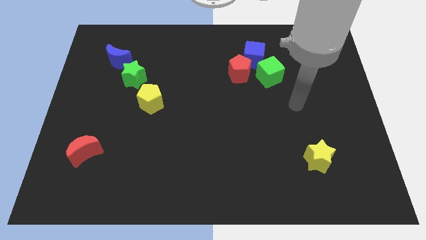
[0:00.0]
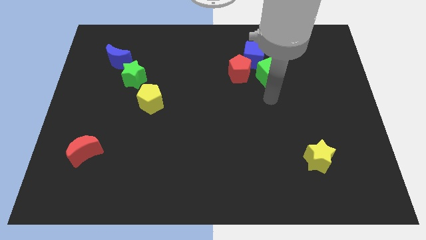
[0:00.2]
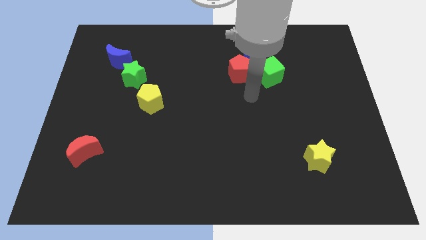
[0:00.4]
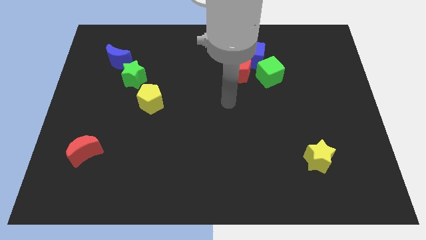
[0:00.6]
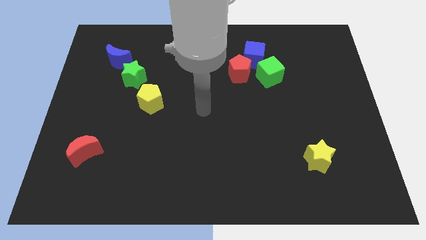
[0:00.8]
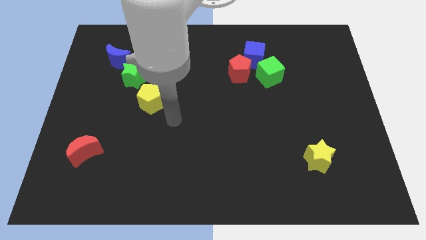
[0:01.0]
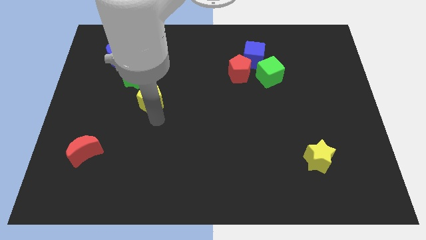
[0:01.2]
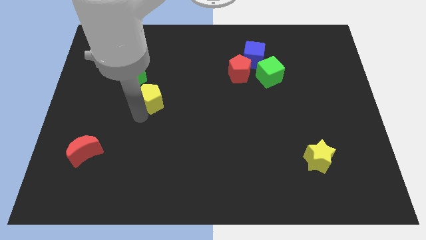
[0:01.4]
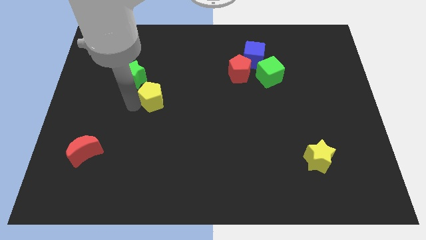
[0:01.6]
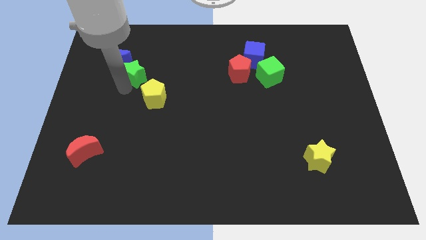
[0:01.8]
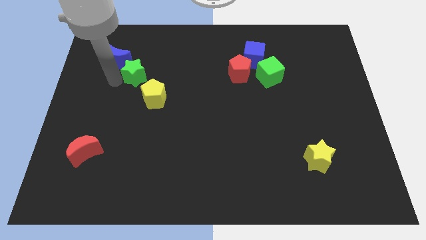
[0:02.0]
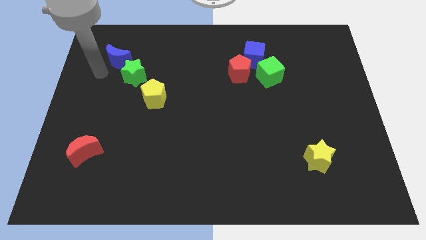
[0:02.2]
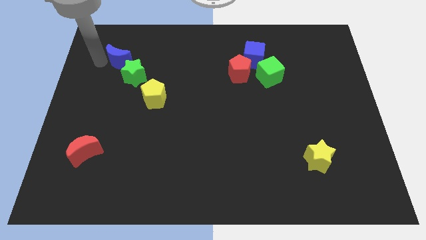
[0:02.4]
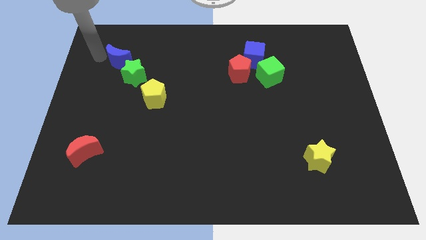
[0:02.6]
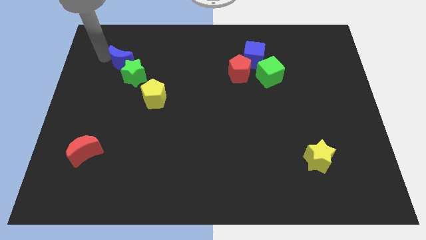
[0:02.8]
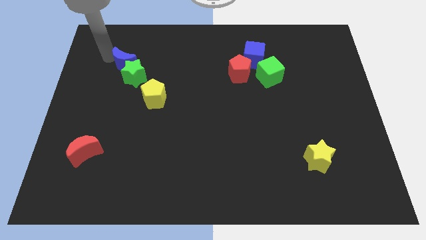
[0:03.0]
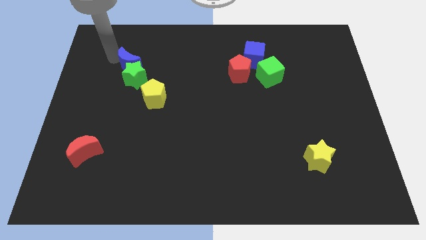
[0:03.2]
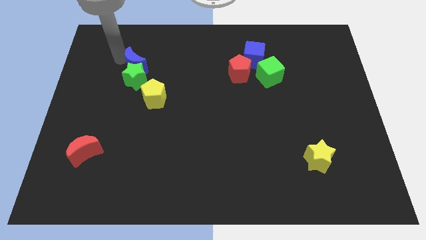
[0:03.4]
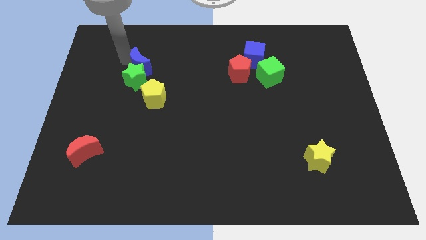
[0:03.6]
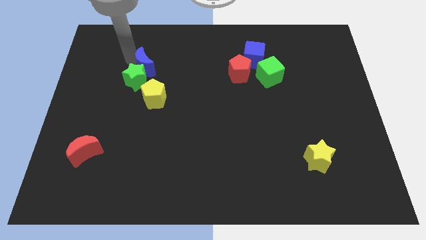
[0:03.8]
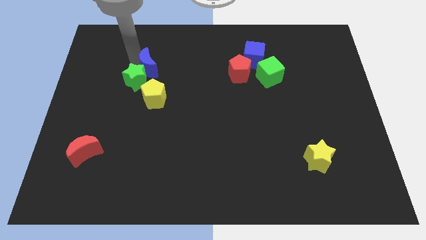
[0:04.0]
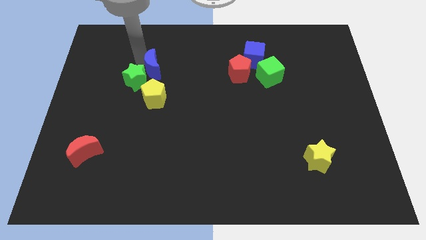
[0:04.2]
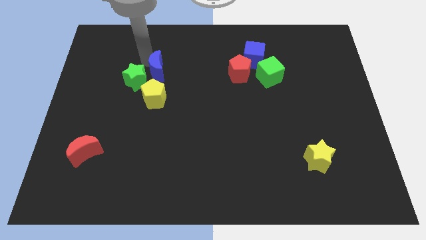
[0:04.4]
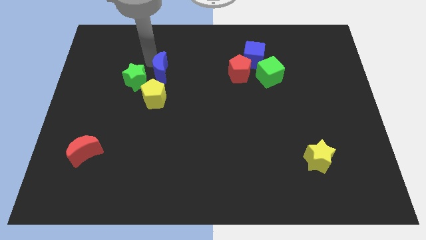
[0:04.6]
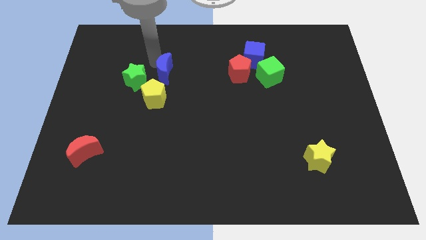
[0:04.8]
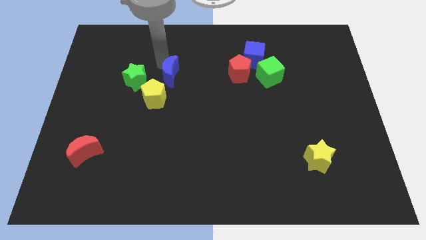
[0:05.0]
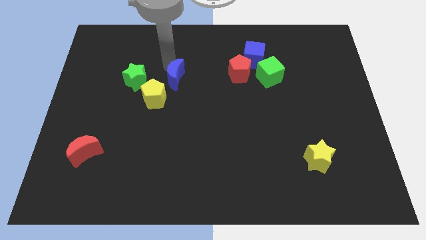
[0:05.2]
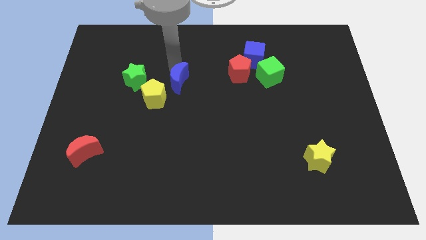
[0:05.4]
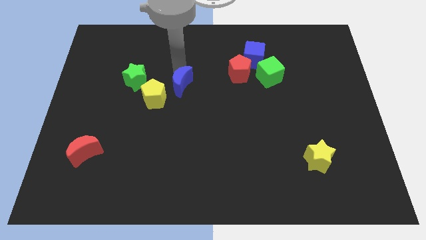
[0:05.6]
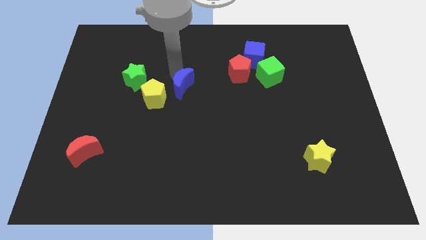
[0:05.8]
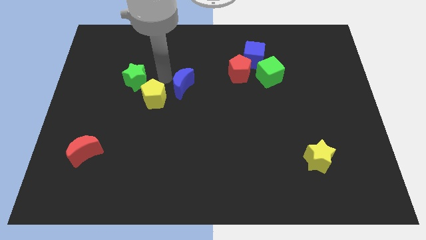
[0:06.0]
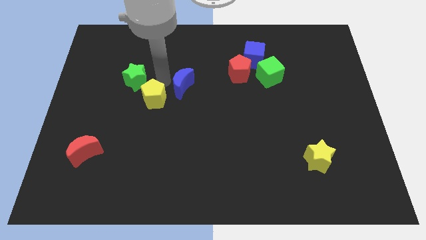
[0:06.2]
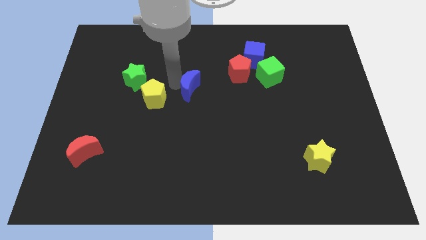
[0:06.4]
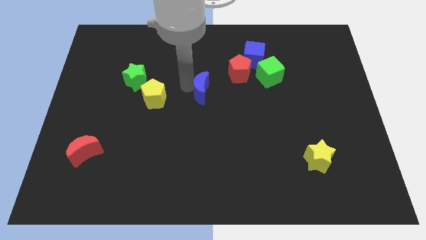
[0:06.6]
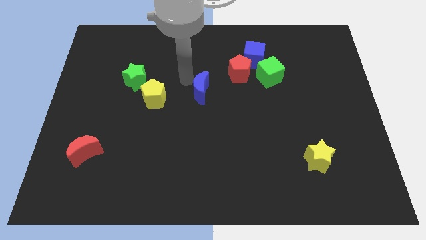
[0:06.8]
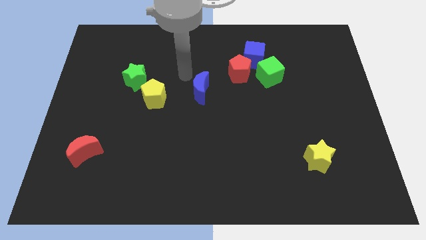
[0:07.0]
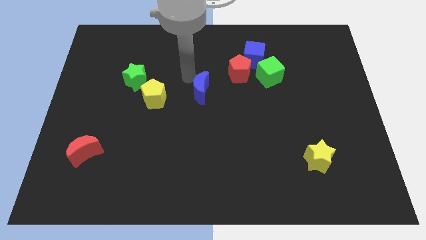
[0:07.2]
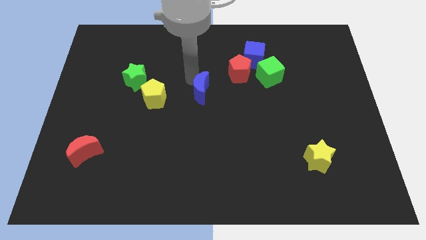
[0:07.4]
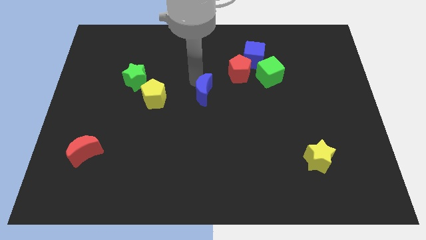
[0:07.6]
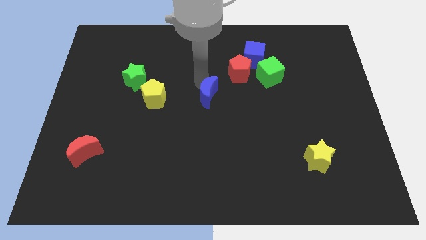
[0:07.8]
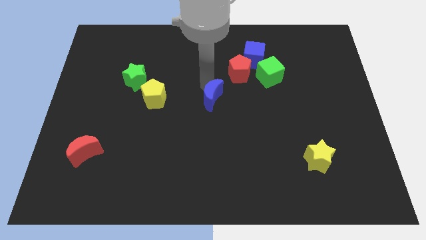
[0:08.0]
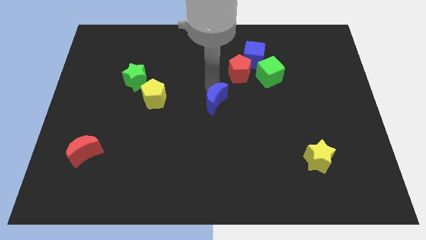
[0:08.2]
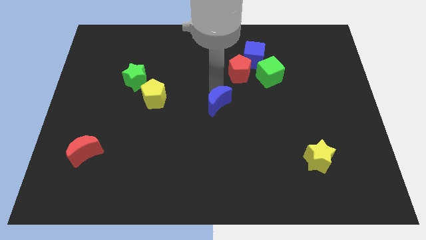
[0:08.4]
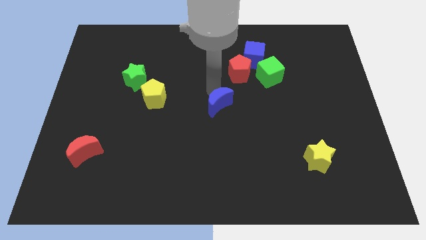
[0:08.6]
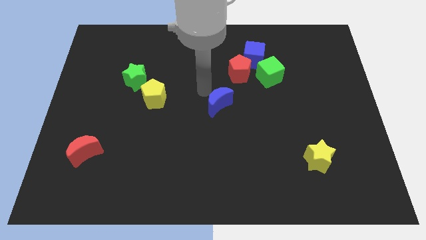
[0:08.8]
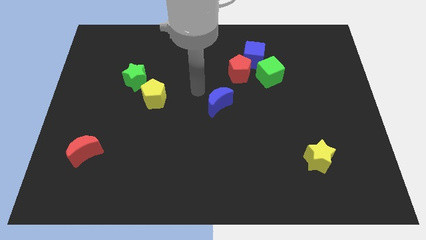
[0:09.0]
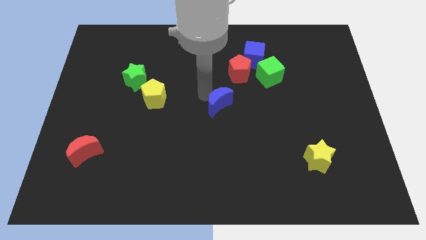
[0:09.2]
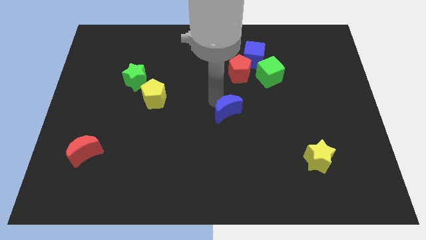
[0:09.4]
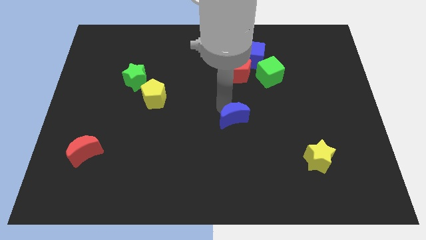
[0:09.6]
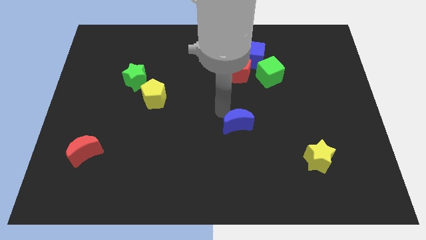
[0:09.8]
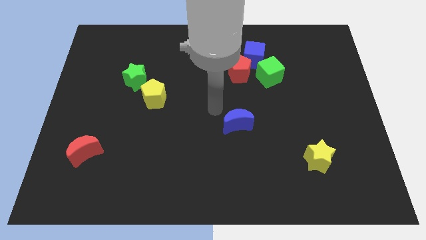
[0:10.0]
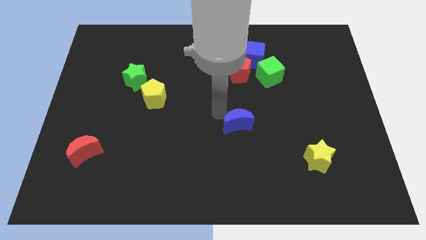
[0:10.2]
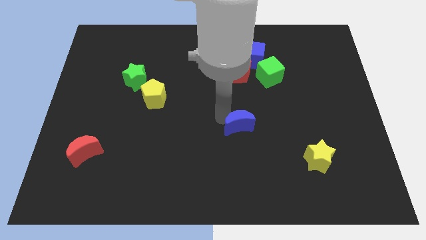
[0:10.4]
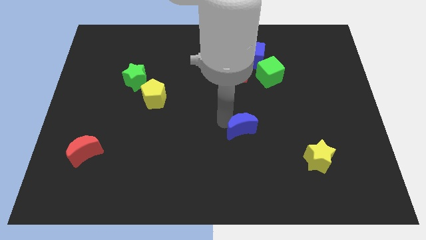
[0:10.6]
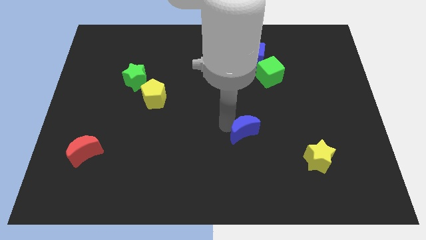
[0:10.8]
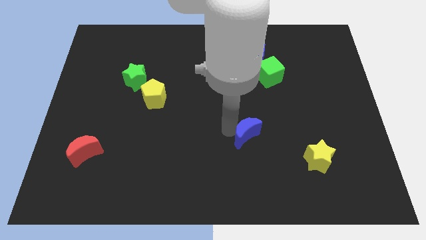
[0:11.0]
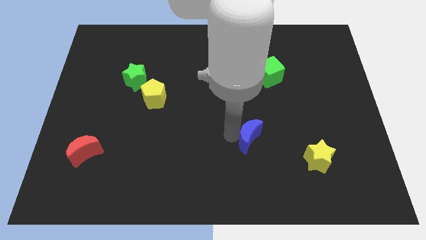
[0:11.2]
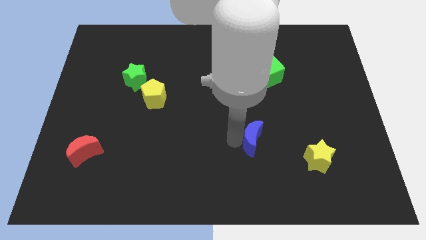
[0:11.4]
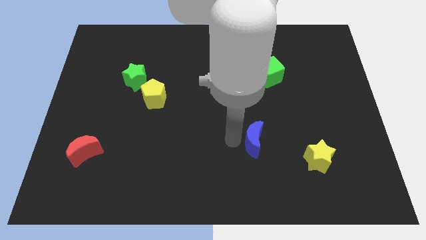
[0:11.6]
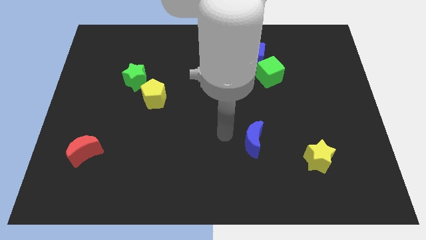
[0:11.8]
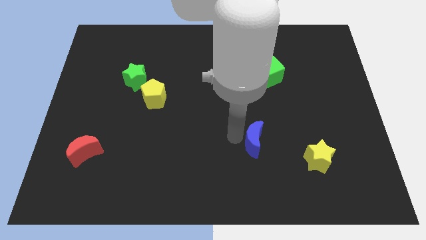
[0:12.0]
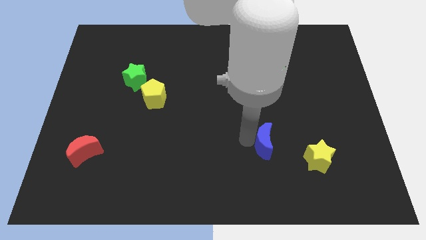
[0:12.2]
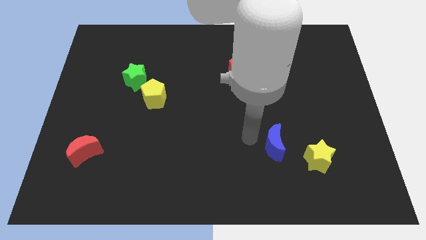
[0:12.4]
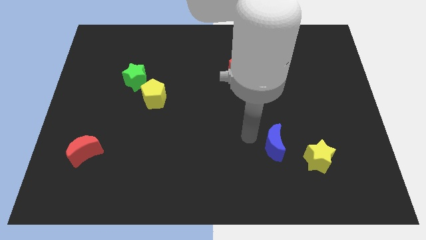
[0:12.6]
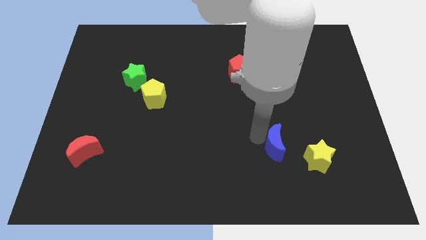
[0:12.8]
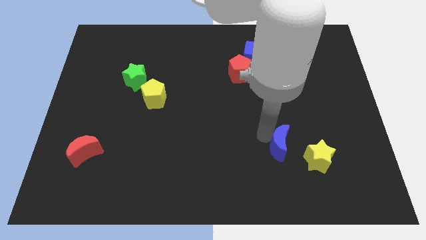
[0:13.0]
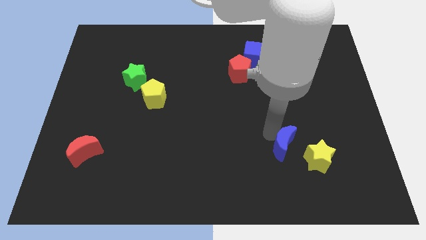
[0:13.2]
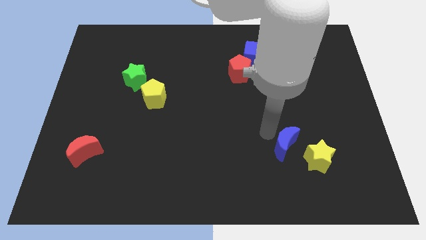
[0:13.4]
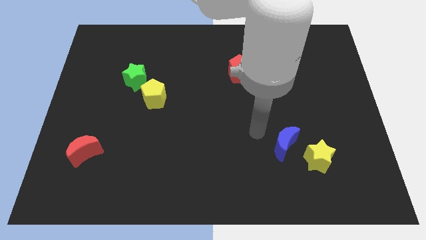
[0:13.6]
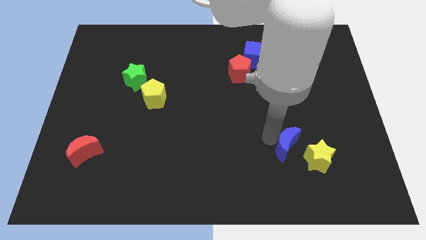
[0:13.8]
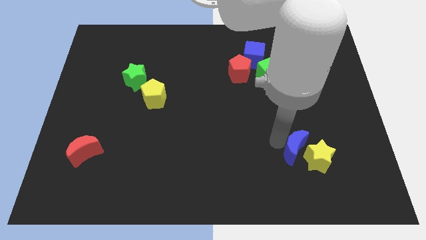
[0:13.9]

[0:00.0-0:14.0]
slide the blue moon next to the yellow star
